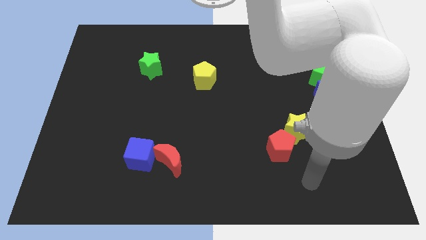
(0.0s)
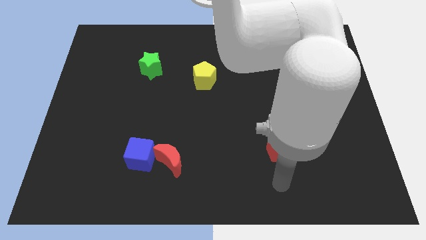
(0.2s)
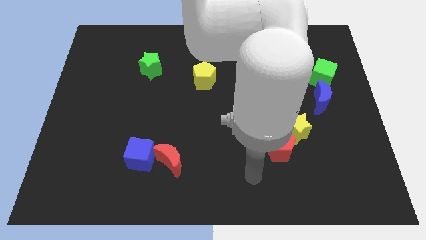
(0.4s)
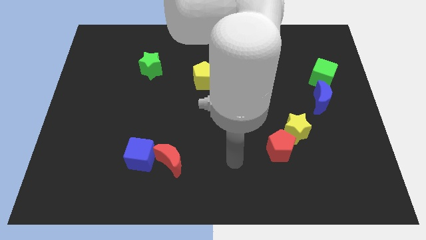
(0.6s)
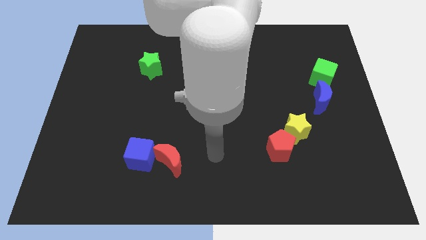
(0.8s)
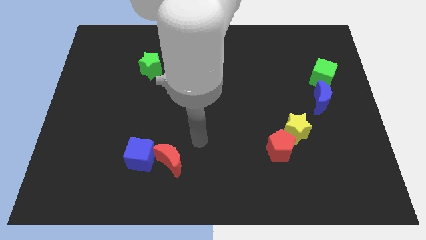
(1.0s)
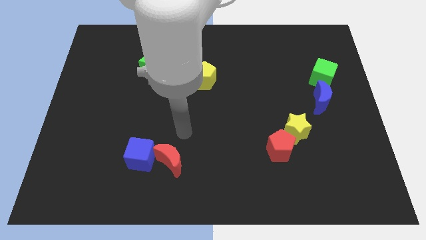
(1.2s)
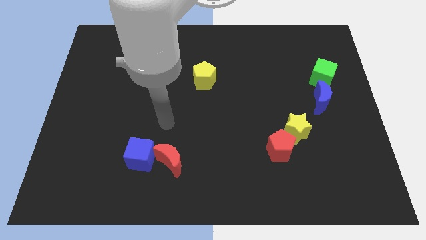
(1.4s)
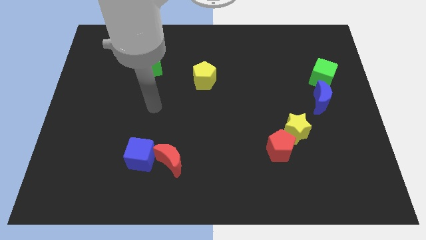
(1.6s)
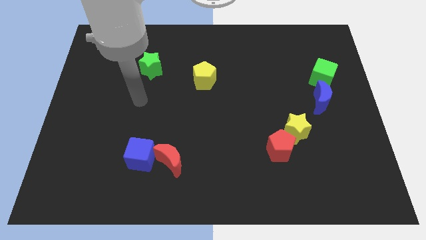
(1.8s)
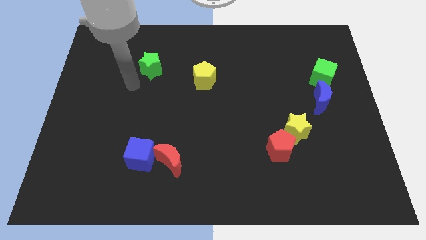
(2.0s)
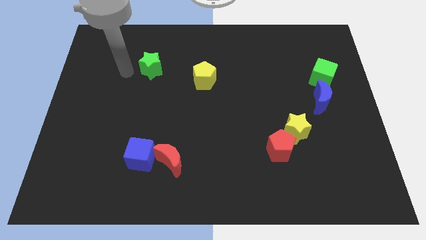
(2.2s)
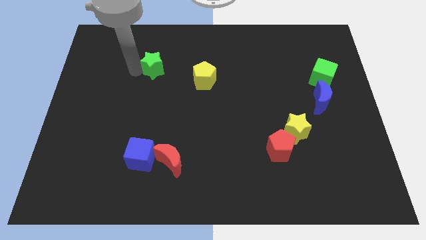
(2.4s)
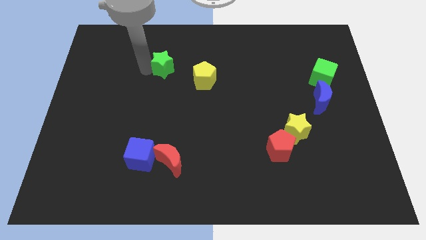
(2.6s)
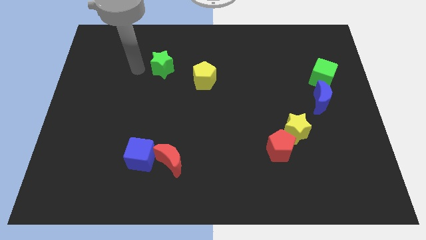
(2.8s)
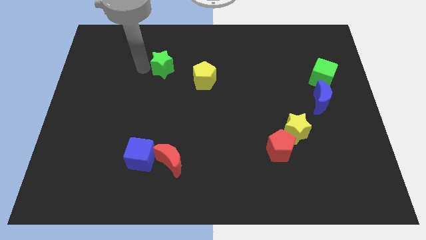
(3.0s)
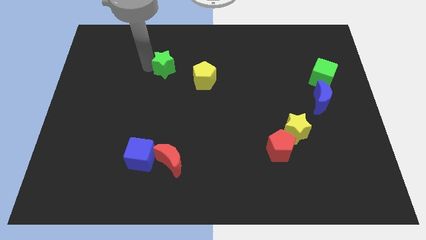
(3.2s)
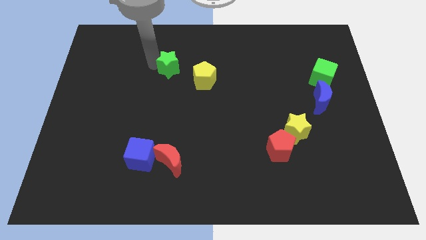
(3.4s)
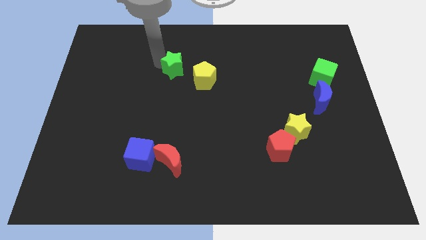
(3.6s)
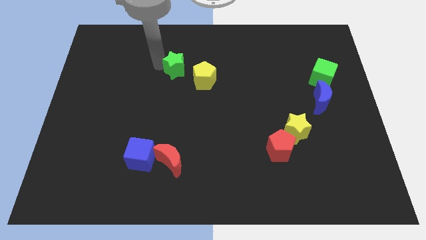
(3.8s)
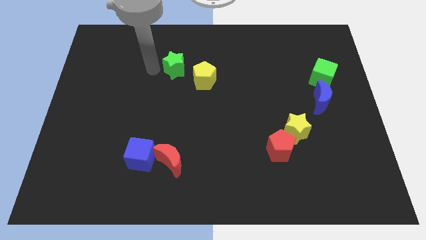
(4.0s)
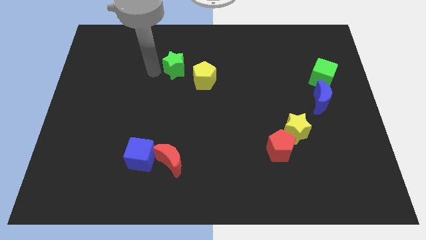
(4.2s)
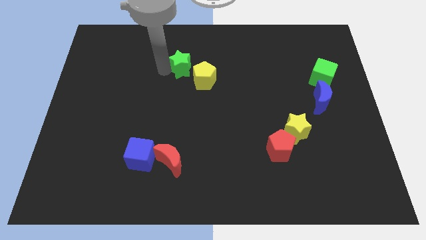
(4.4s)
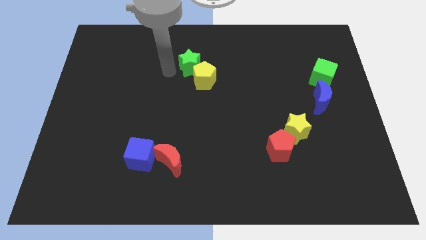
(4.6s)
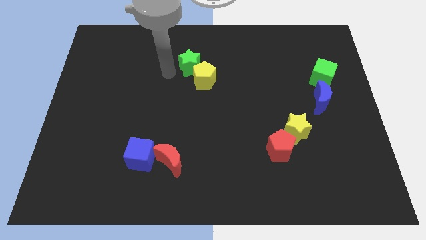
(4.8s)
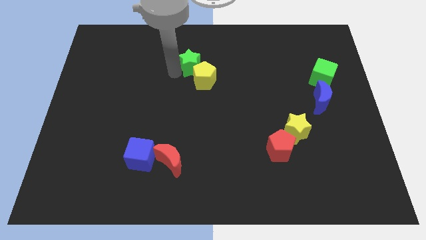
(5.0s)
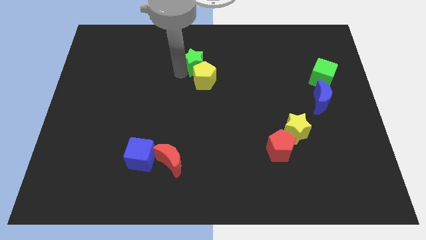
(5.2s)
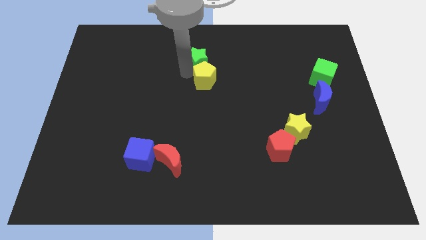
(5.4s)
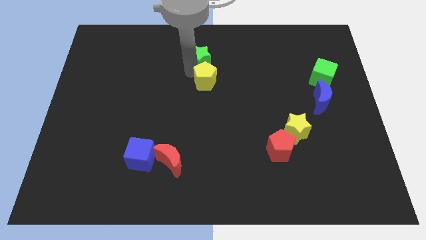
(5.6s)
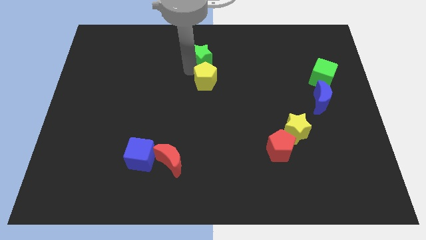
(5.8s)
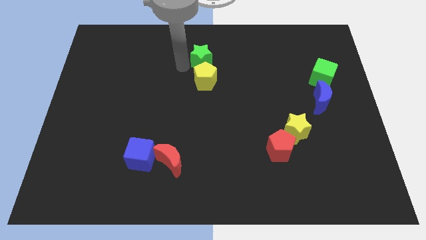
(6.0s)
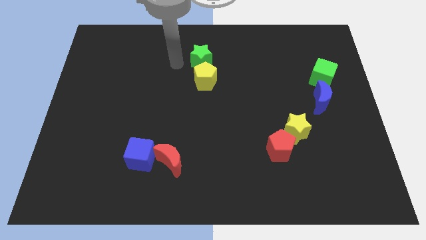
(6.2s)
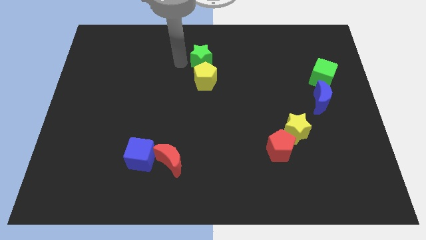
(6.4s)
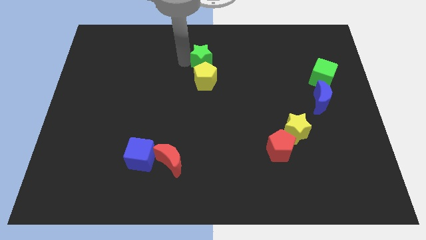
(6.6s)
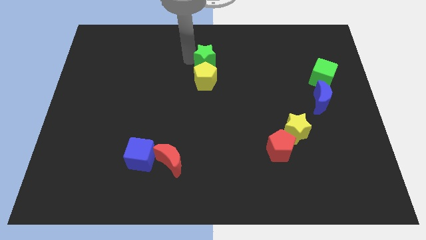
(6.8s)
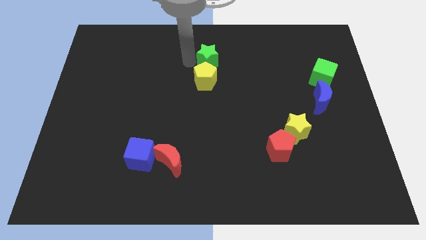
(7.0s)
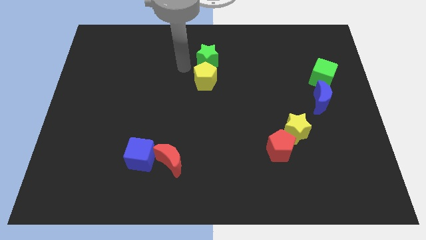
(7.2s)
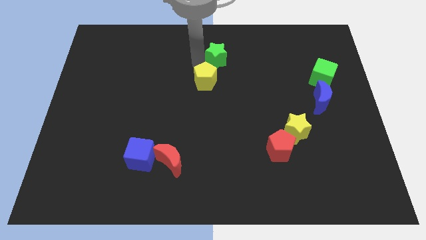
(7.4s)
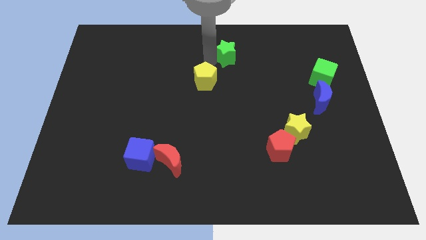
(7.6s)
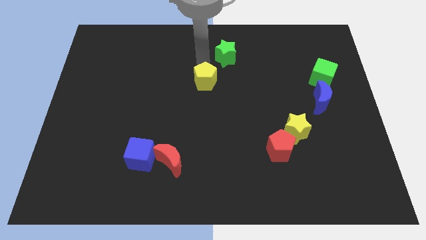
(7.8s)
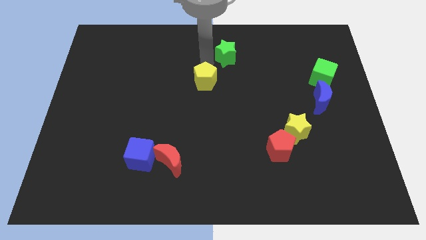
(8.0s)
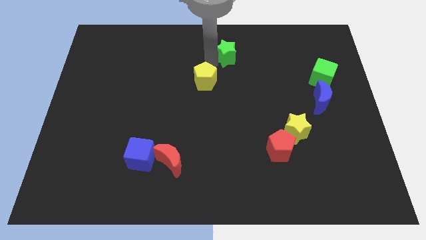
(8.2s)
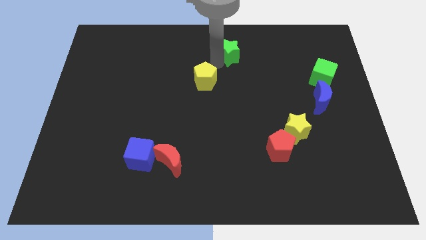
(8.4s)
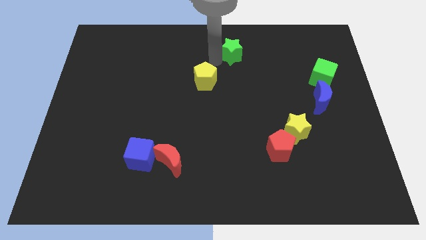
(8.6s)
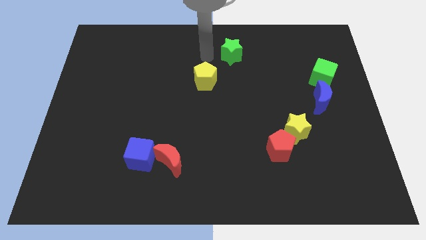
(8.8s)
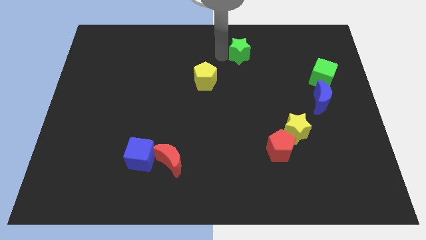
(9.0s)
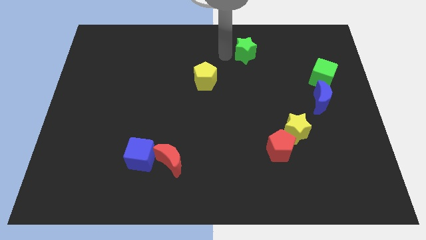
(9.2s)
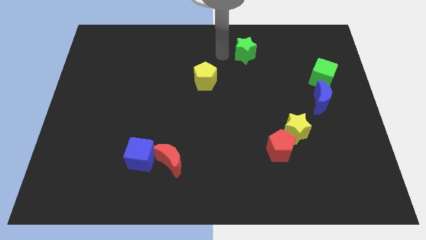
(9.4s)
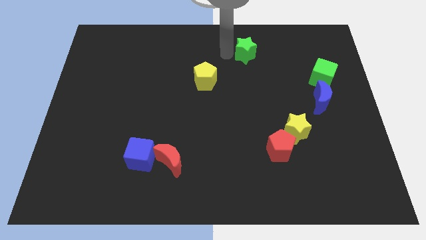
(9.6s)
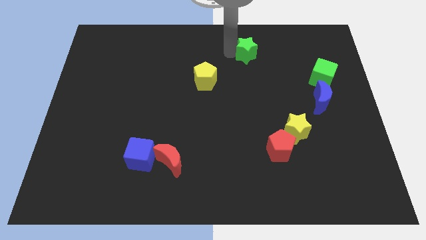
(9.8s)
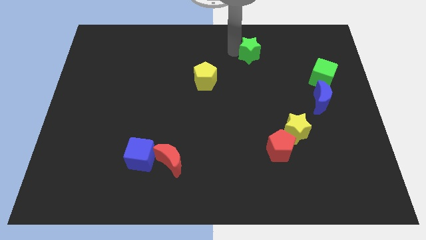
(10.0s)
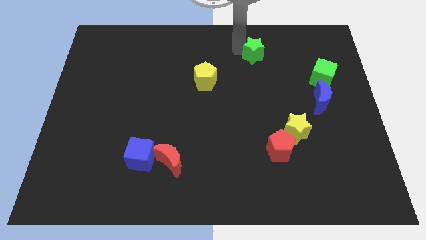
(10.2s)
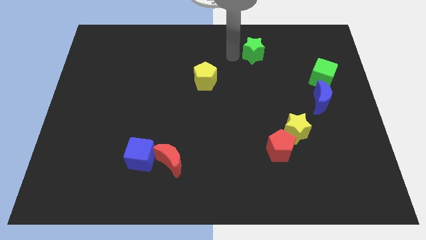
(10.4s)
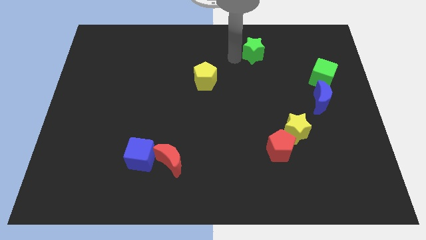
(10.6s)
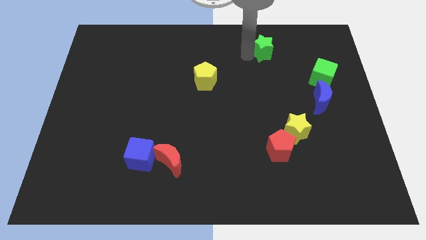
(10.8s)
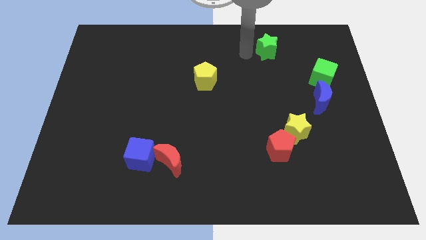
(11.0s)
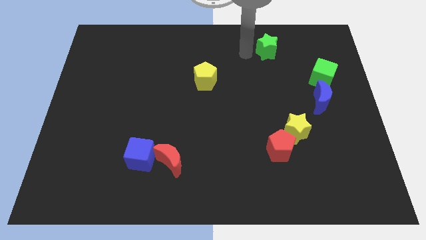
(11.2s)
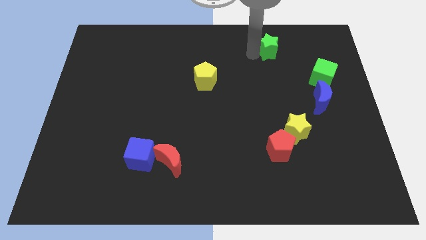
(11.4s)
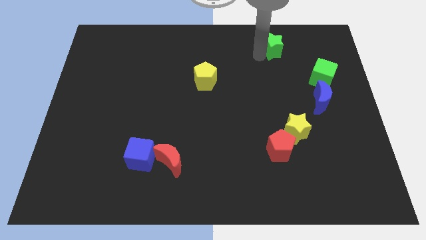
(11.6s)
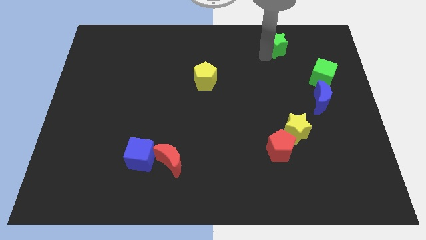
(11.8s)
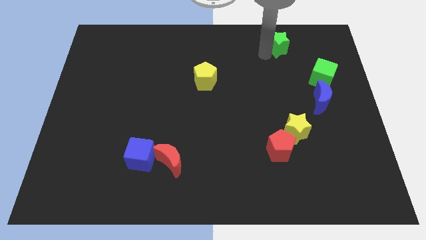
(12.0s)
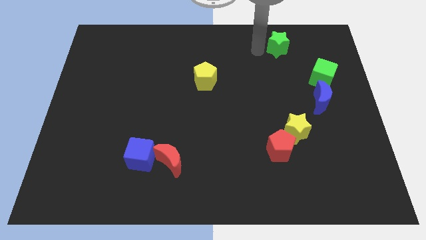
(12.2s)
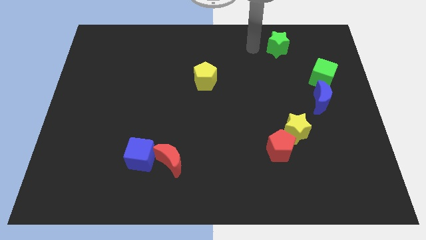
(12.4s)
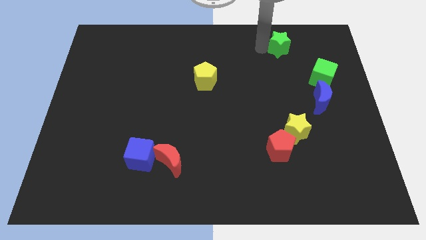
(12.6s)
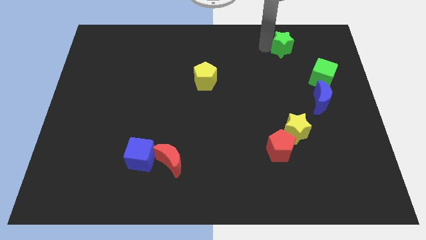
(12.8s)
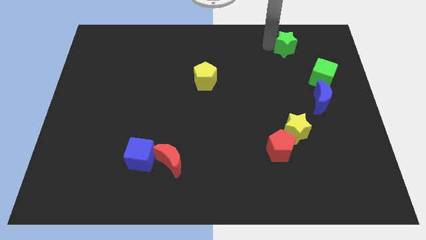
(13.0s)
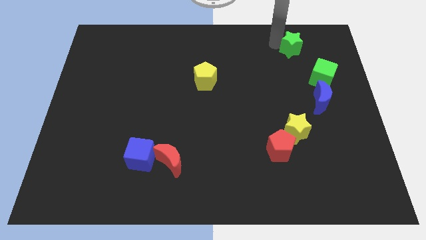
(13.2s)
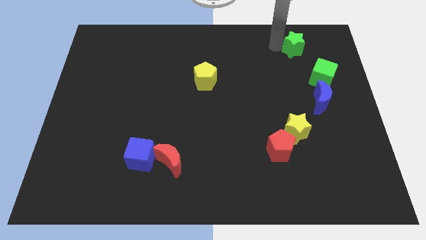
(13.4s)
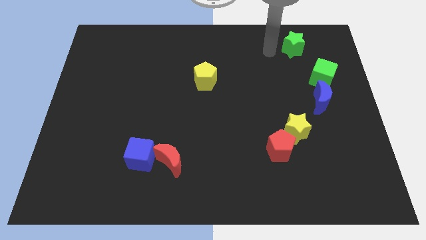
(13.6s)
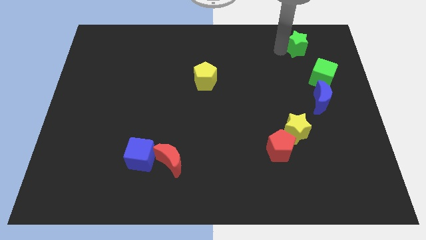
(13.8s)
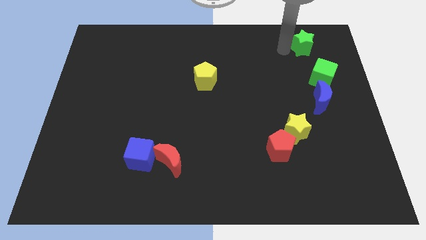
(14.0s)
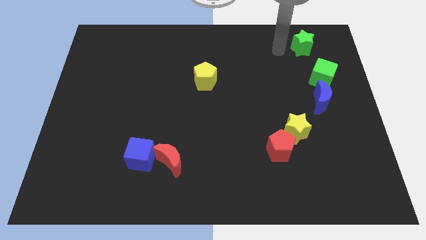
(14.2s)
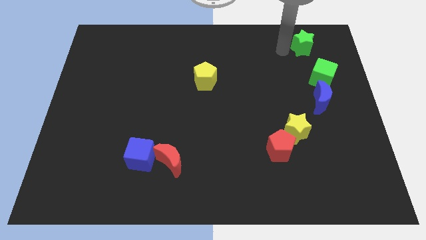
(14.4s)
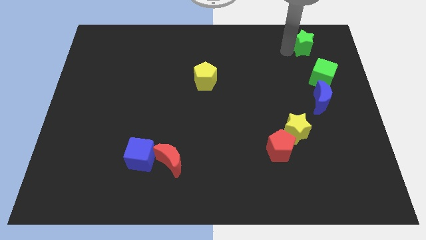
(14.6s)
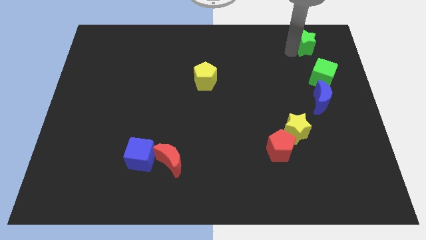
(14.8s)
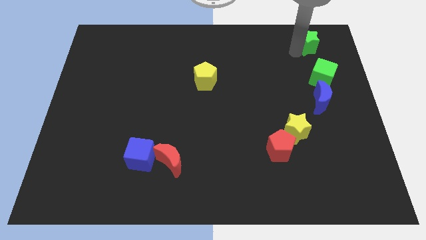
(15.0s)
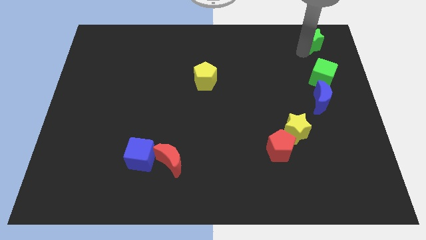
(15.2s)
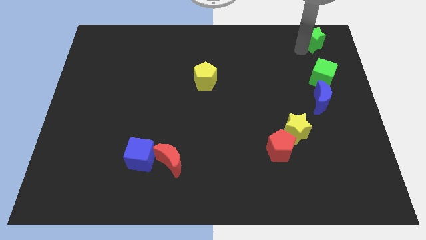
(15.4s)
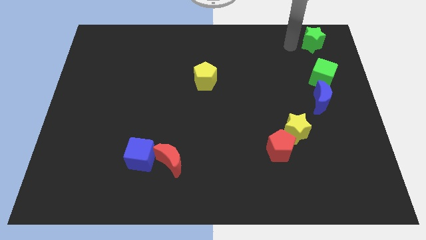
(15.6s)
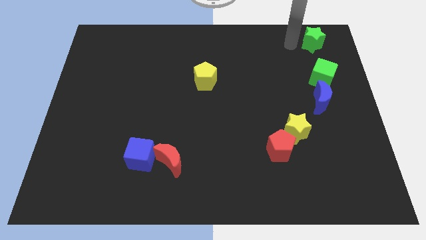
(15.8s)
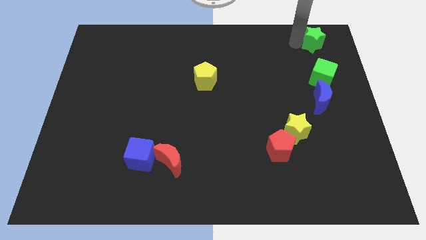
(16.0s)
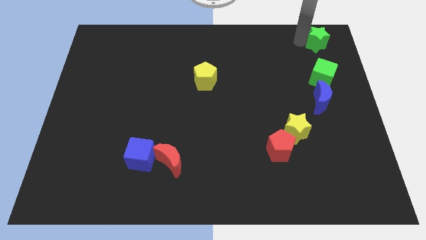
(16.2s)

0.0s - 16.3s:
move the green star to the top right of the board
